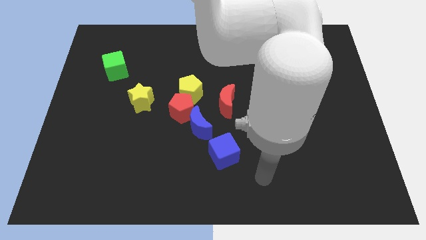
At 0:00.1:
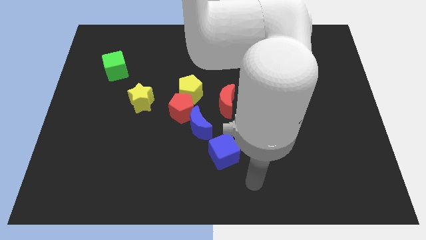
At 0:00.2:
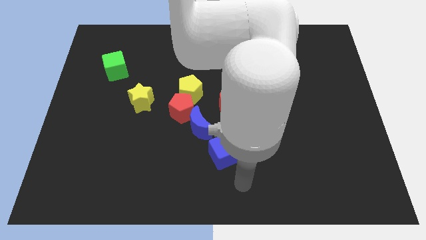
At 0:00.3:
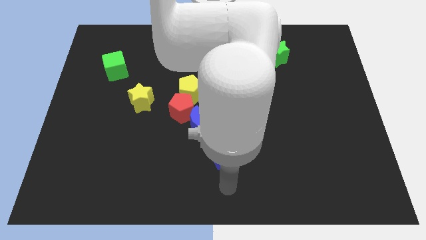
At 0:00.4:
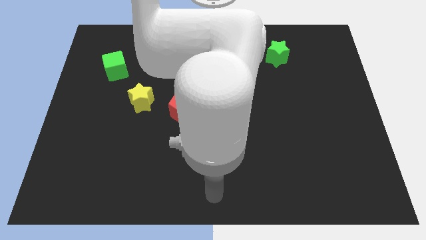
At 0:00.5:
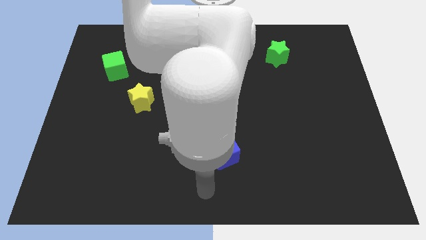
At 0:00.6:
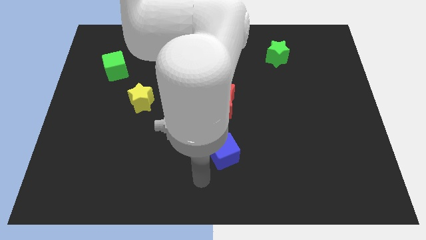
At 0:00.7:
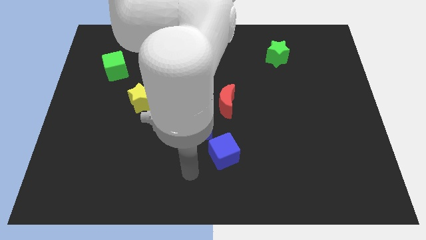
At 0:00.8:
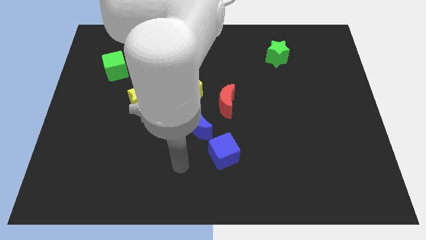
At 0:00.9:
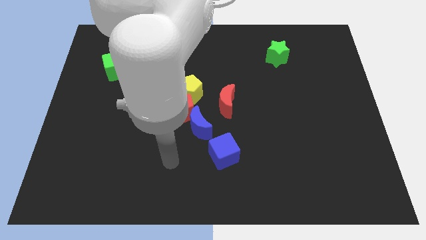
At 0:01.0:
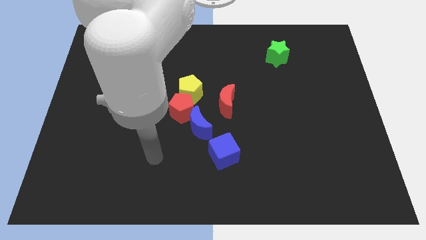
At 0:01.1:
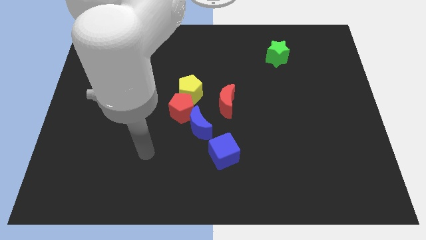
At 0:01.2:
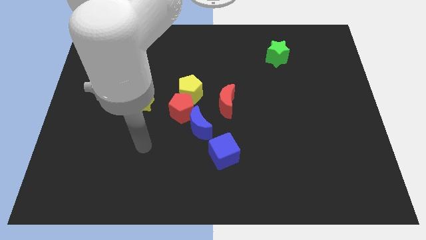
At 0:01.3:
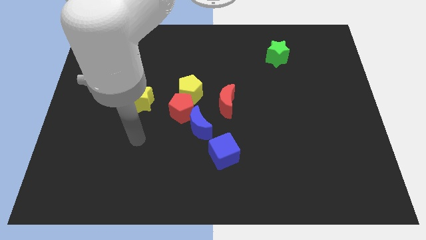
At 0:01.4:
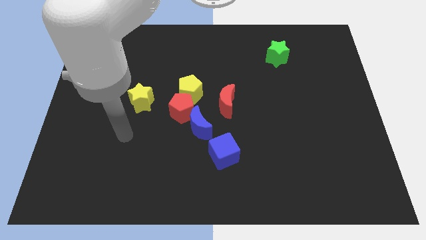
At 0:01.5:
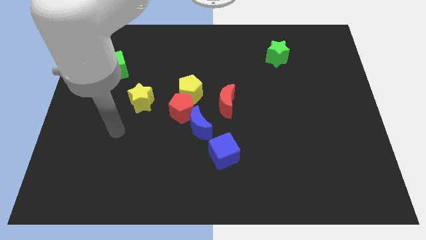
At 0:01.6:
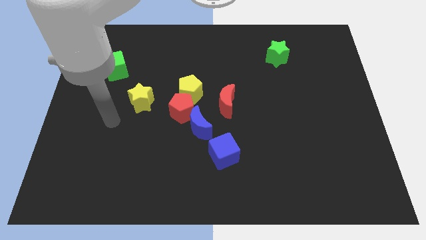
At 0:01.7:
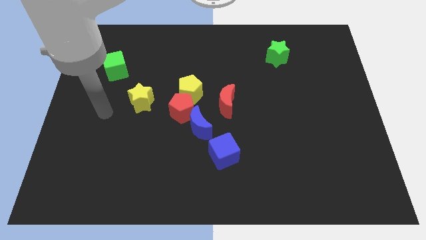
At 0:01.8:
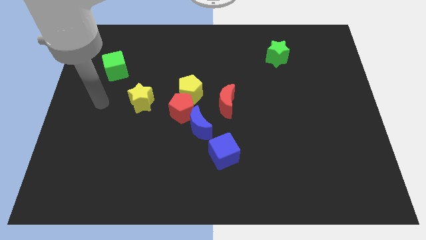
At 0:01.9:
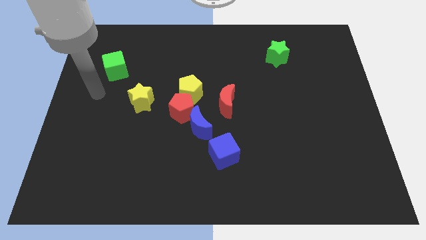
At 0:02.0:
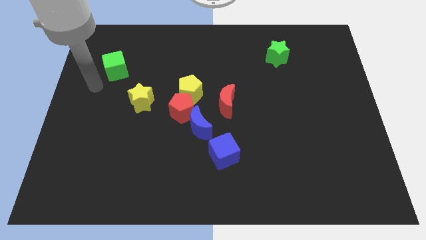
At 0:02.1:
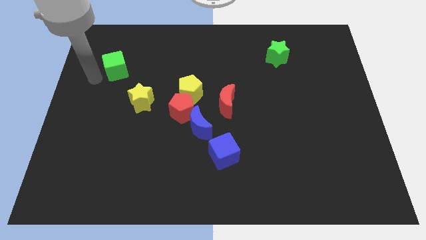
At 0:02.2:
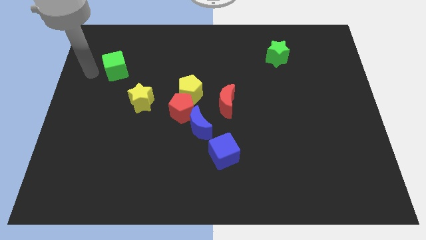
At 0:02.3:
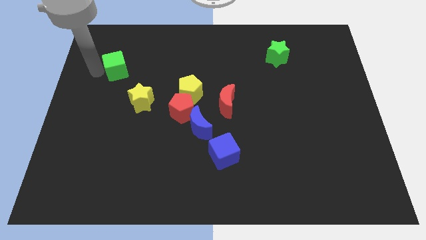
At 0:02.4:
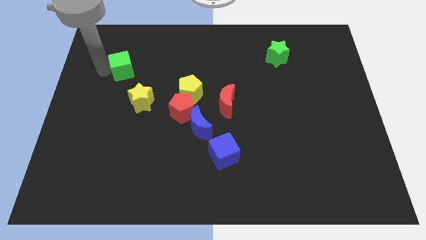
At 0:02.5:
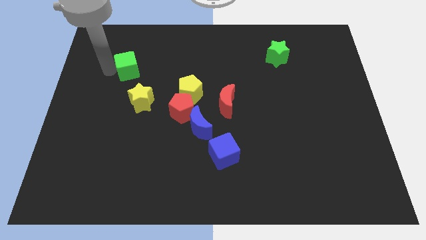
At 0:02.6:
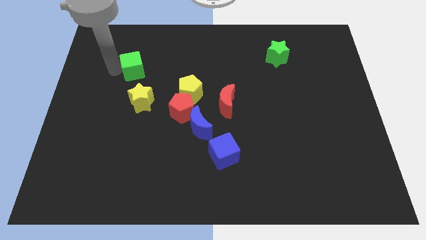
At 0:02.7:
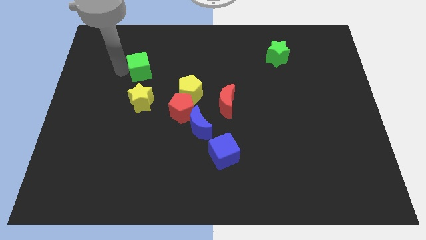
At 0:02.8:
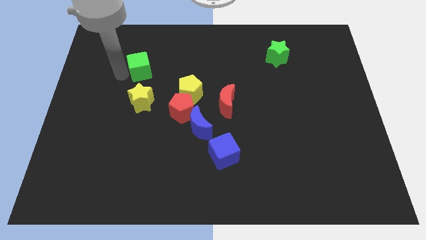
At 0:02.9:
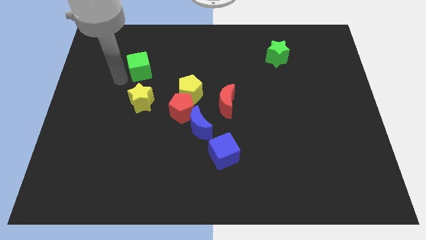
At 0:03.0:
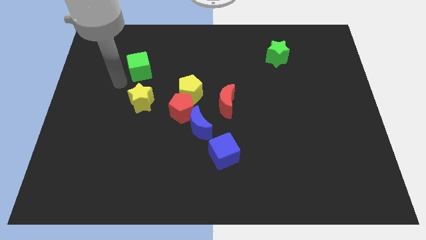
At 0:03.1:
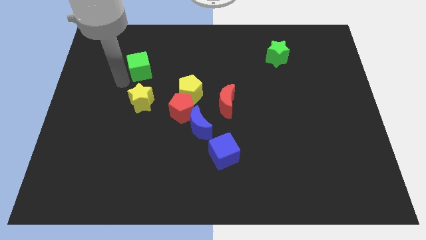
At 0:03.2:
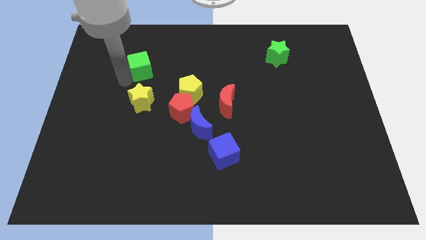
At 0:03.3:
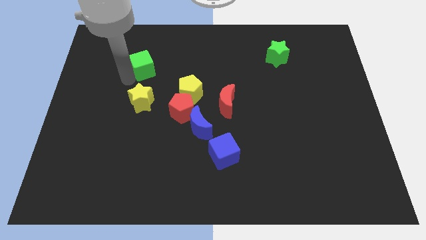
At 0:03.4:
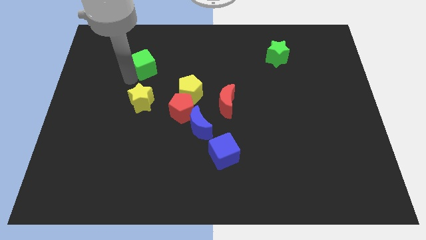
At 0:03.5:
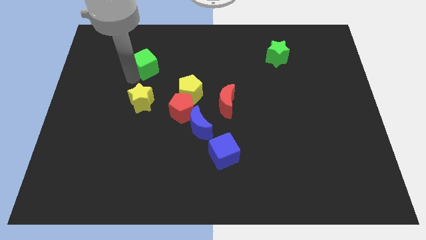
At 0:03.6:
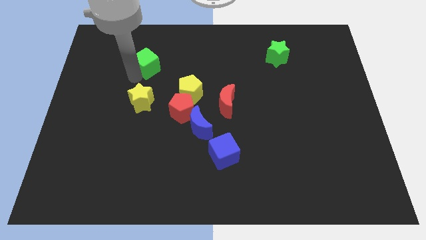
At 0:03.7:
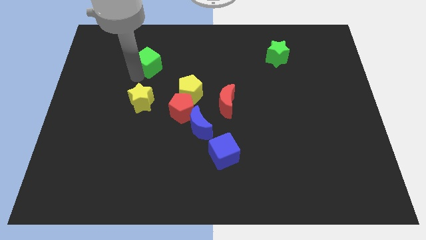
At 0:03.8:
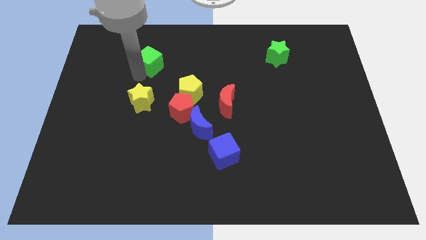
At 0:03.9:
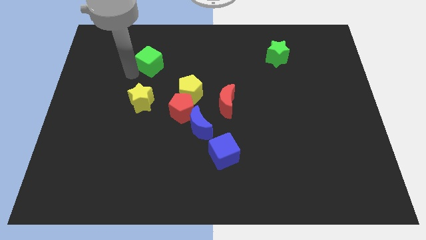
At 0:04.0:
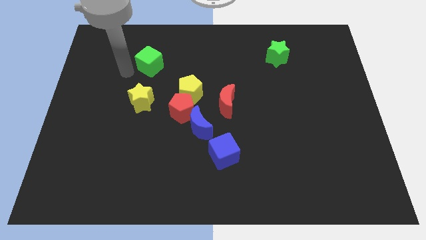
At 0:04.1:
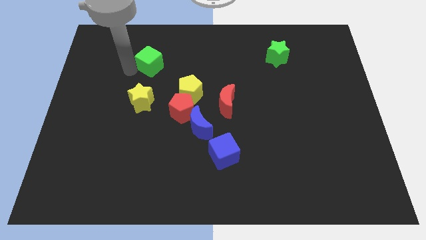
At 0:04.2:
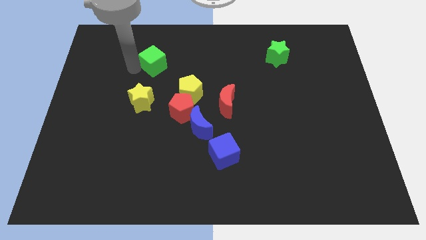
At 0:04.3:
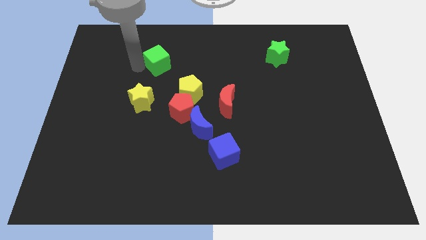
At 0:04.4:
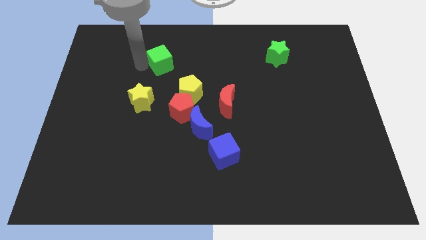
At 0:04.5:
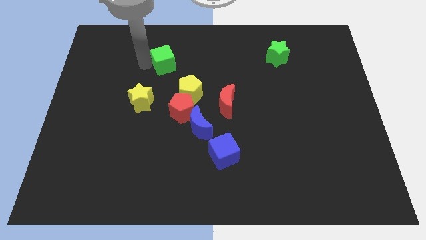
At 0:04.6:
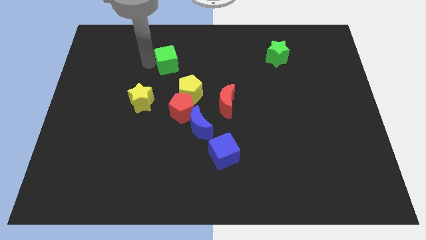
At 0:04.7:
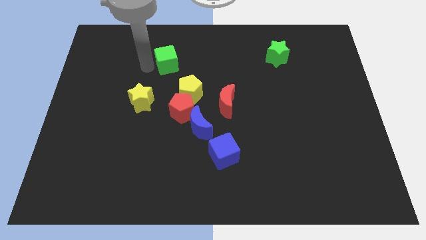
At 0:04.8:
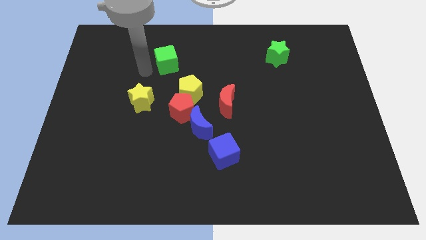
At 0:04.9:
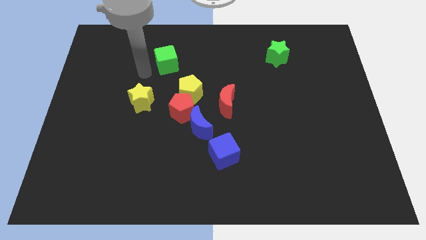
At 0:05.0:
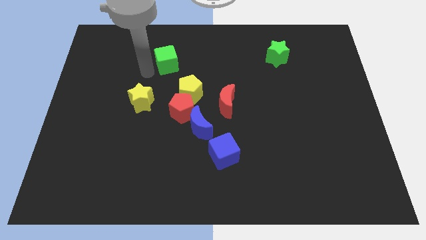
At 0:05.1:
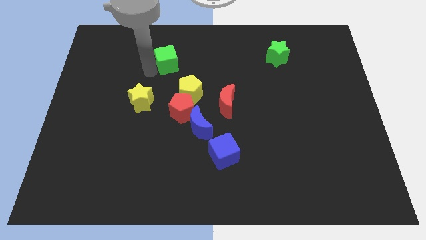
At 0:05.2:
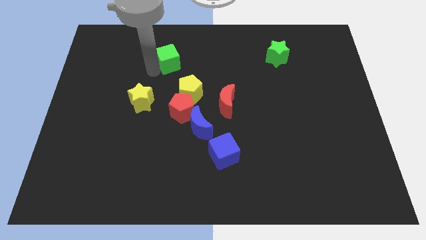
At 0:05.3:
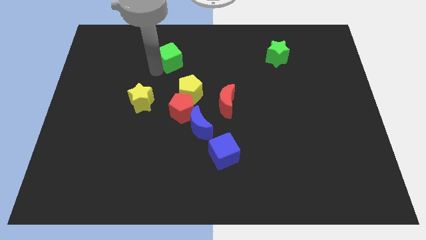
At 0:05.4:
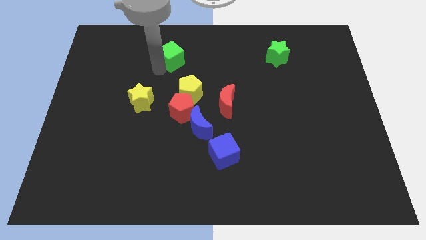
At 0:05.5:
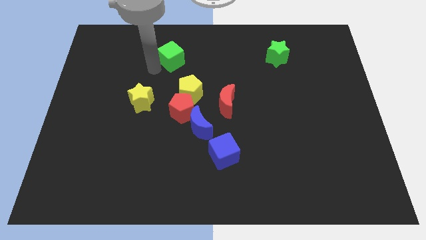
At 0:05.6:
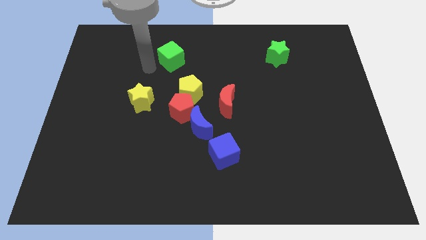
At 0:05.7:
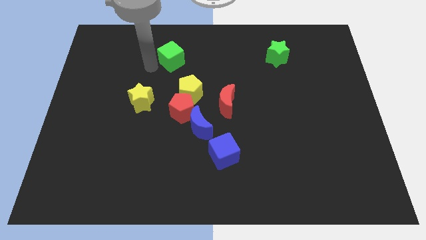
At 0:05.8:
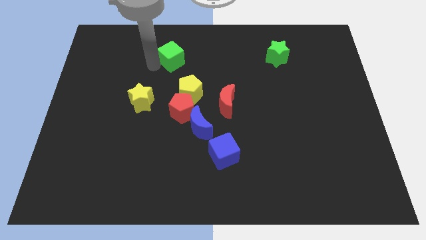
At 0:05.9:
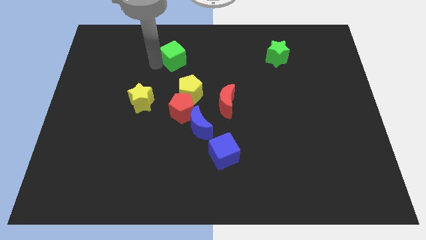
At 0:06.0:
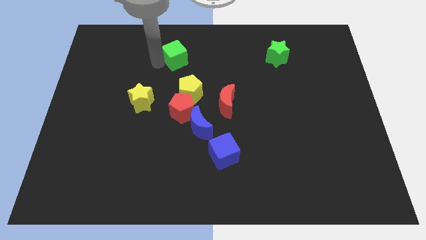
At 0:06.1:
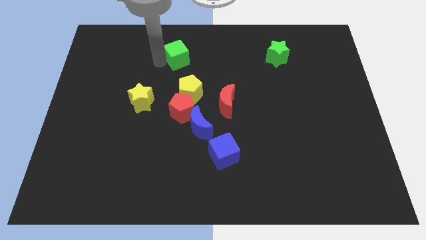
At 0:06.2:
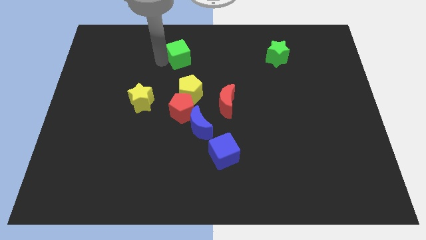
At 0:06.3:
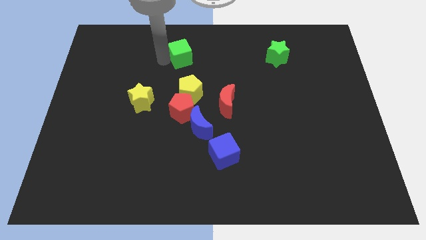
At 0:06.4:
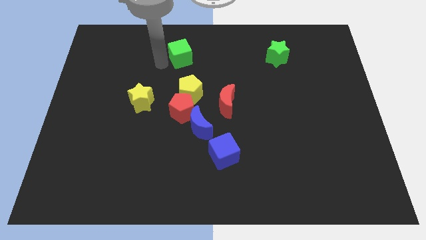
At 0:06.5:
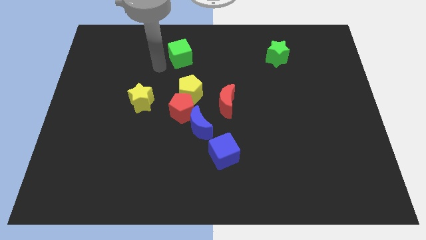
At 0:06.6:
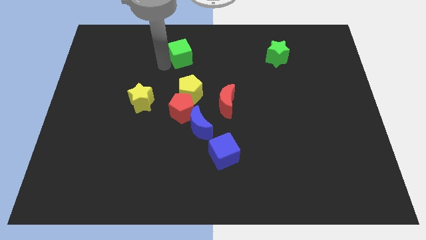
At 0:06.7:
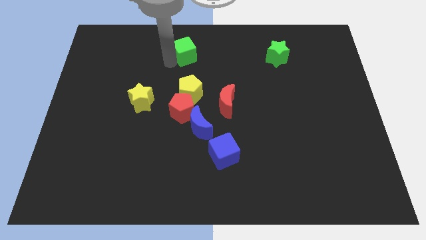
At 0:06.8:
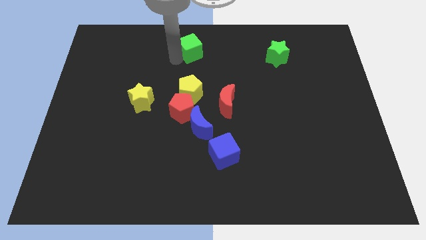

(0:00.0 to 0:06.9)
move the green cube to the towards your base

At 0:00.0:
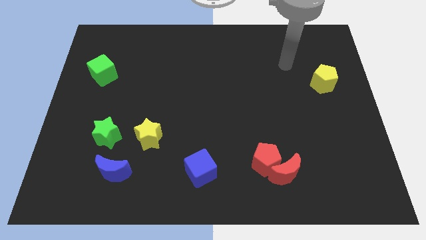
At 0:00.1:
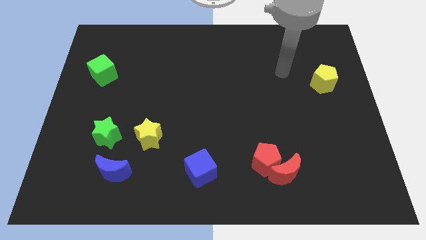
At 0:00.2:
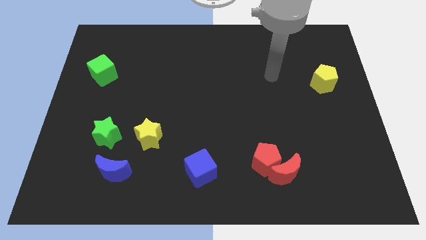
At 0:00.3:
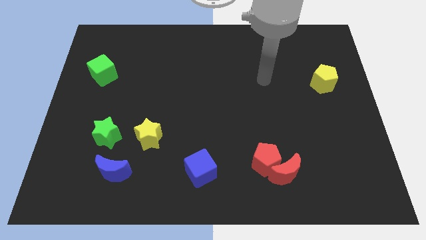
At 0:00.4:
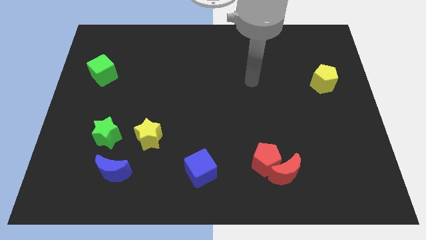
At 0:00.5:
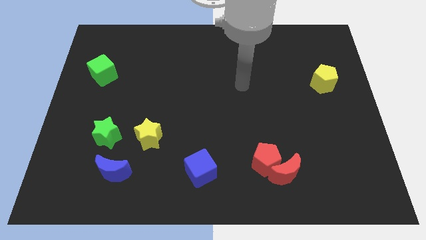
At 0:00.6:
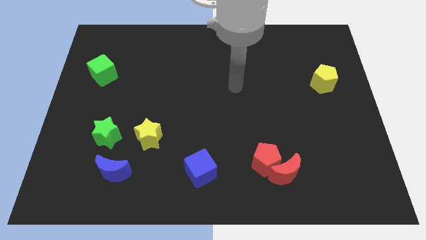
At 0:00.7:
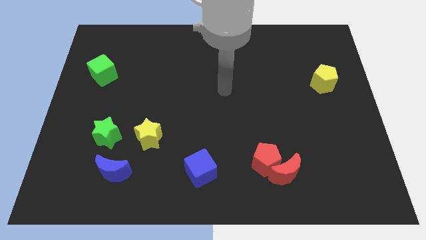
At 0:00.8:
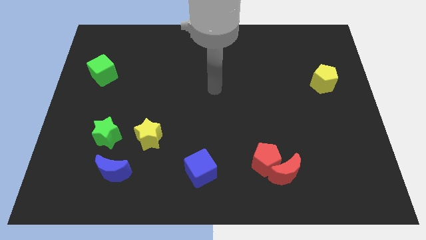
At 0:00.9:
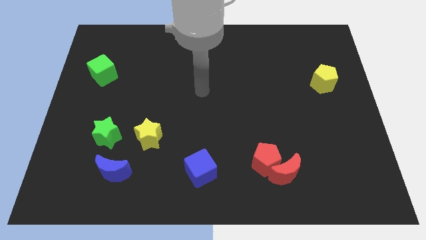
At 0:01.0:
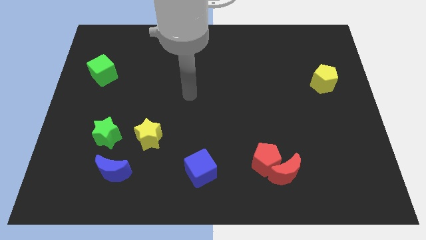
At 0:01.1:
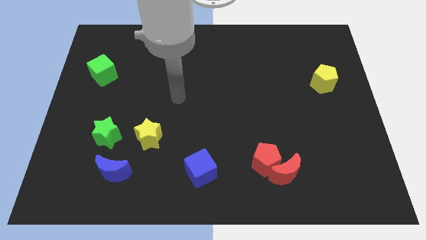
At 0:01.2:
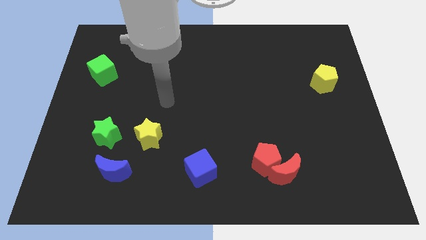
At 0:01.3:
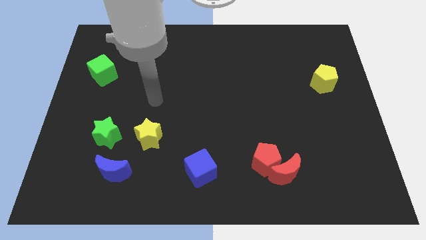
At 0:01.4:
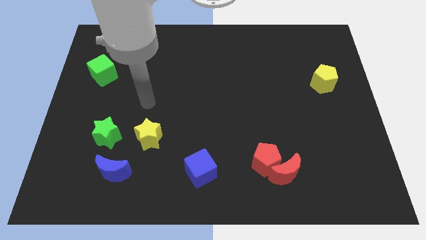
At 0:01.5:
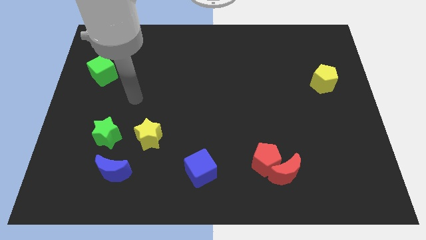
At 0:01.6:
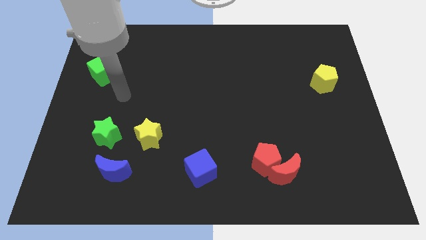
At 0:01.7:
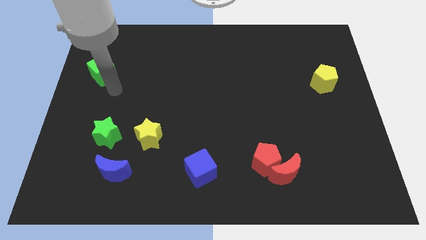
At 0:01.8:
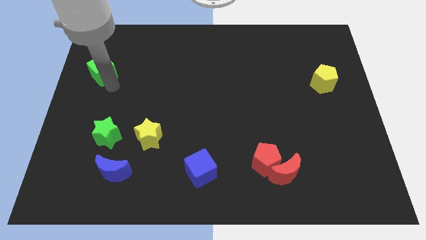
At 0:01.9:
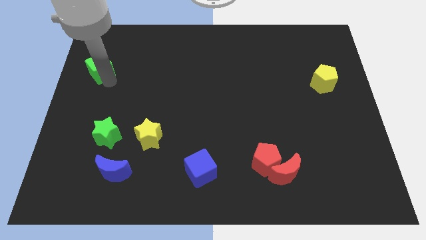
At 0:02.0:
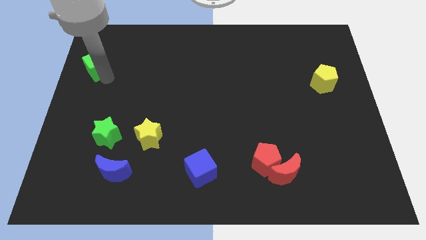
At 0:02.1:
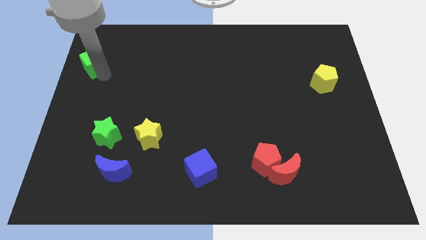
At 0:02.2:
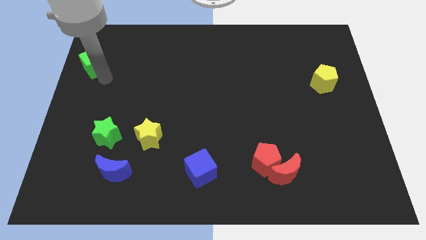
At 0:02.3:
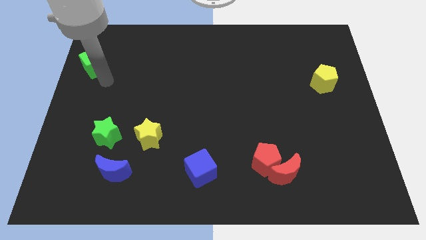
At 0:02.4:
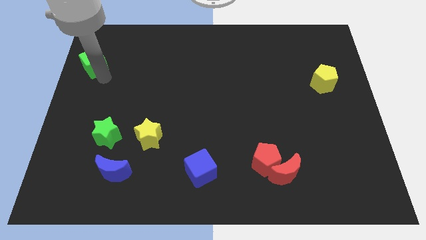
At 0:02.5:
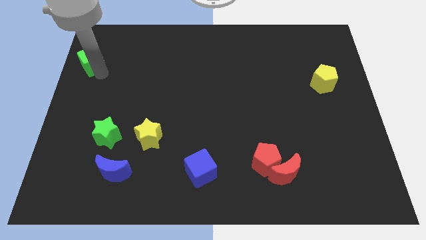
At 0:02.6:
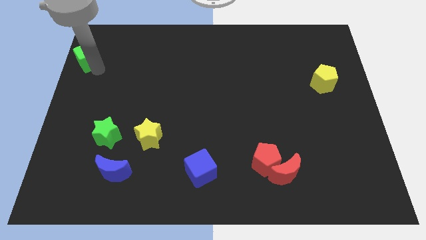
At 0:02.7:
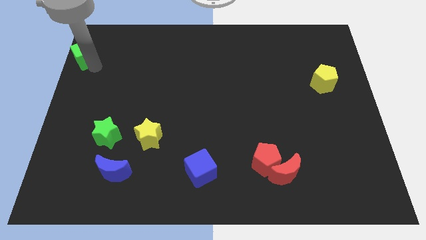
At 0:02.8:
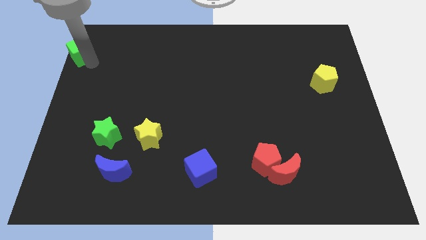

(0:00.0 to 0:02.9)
push the green cube to the top left of the board
